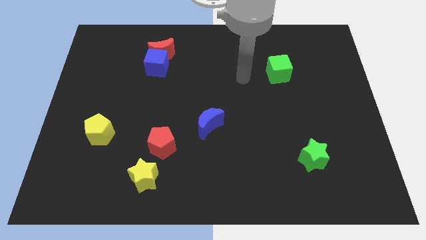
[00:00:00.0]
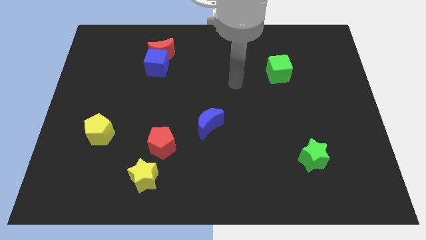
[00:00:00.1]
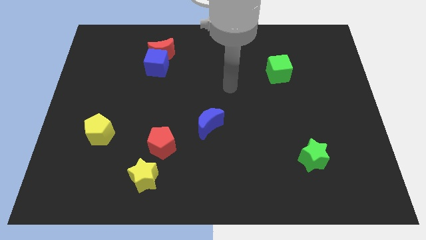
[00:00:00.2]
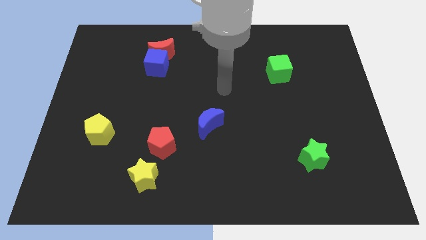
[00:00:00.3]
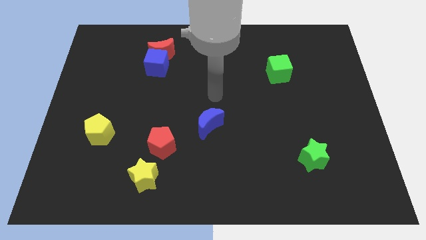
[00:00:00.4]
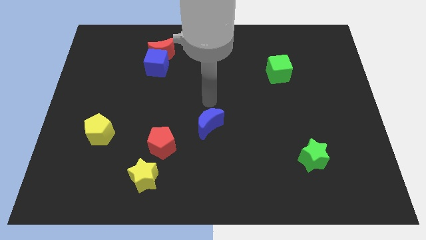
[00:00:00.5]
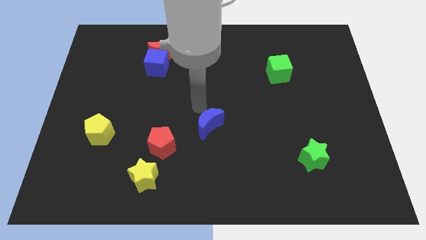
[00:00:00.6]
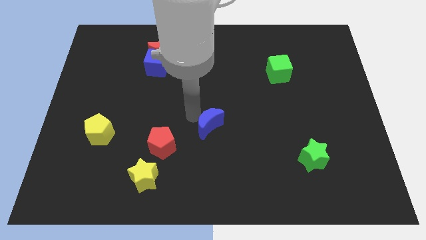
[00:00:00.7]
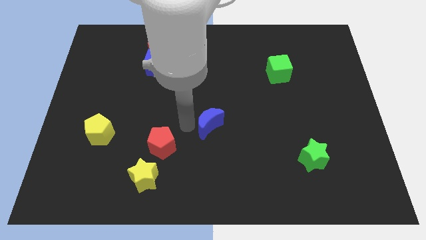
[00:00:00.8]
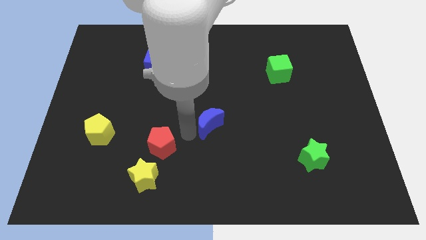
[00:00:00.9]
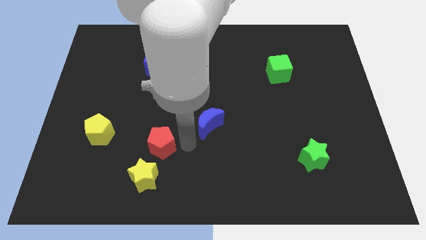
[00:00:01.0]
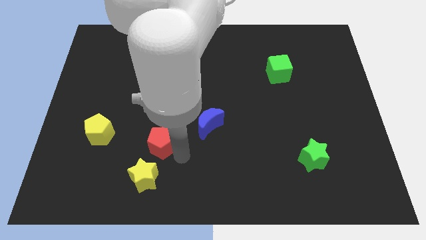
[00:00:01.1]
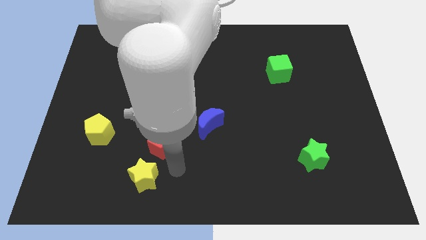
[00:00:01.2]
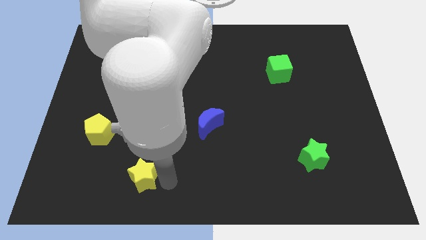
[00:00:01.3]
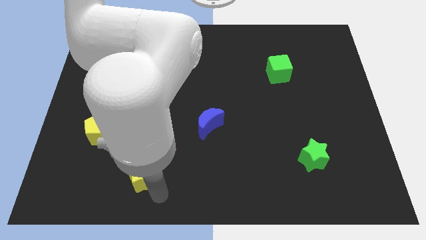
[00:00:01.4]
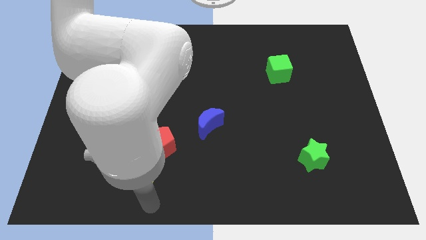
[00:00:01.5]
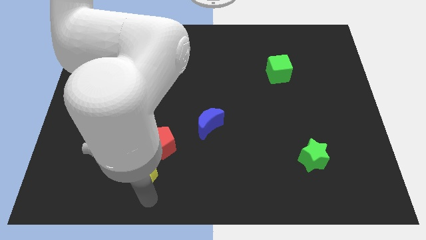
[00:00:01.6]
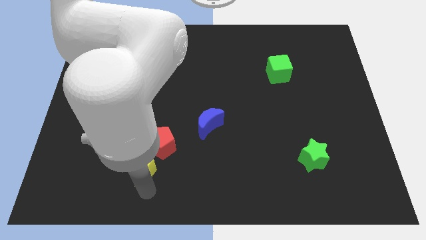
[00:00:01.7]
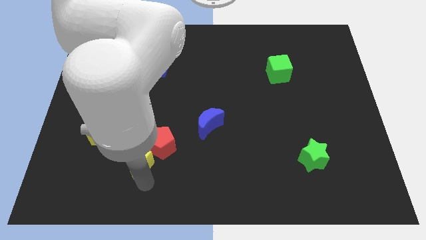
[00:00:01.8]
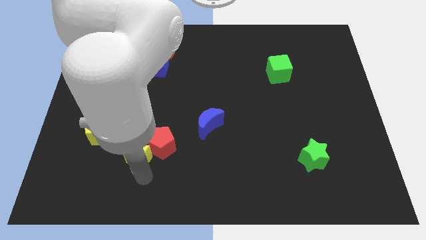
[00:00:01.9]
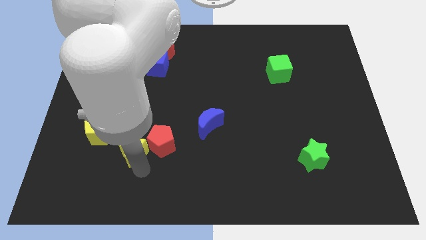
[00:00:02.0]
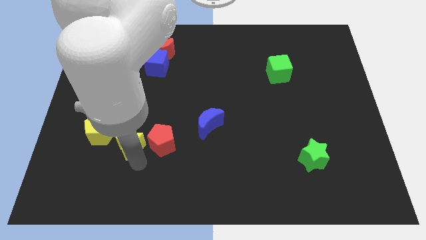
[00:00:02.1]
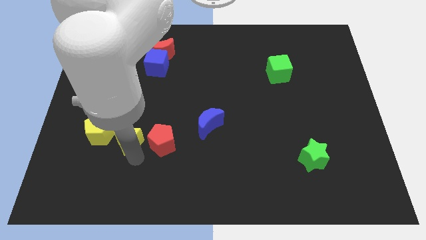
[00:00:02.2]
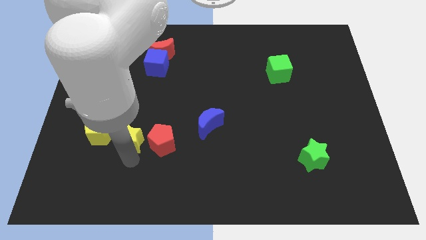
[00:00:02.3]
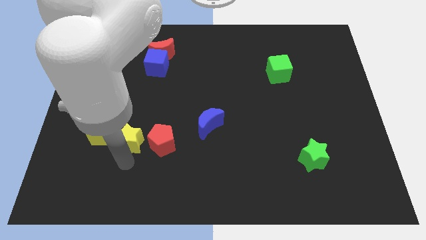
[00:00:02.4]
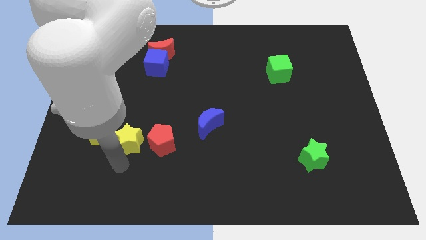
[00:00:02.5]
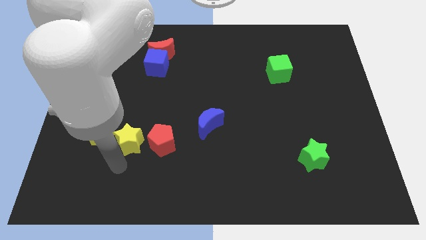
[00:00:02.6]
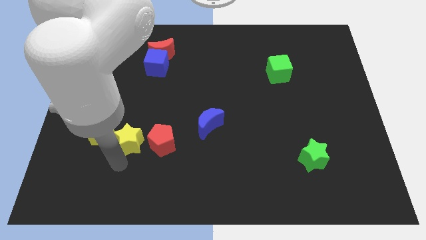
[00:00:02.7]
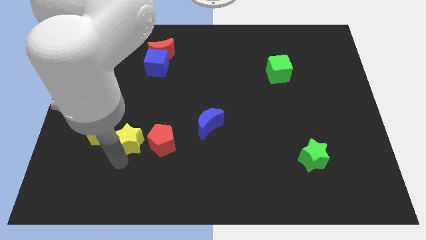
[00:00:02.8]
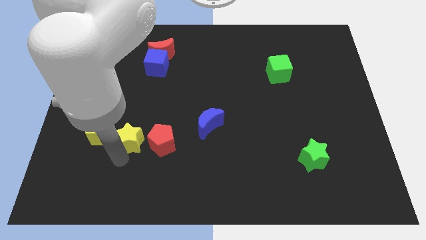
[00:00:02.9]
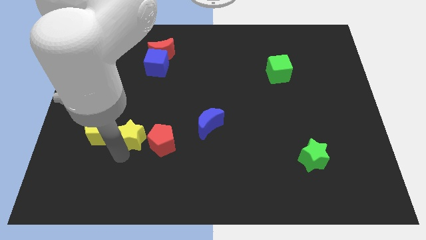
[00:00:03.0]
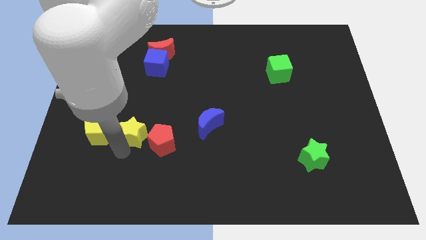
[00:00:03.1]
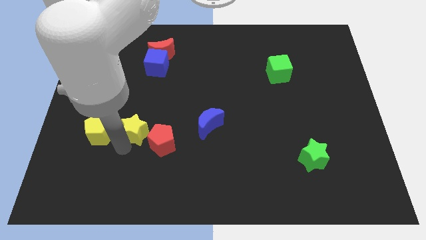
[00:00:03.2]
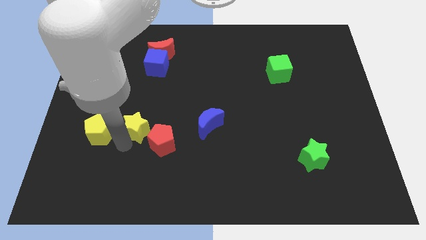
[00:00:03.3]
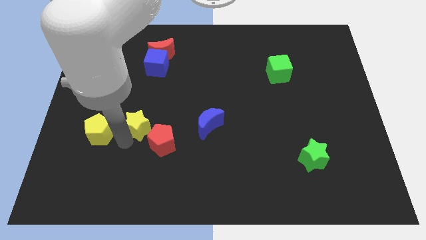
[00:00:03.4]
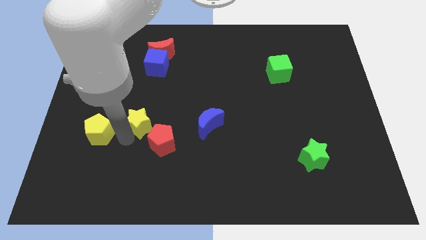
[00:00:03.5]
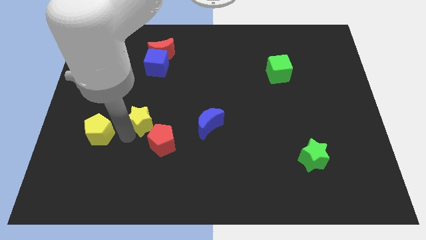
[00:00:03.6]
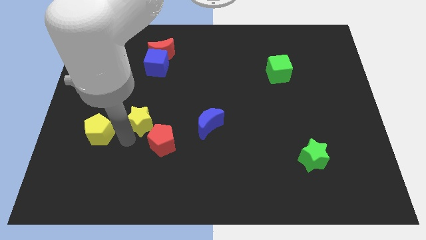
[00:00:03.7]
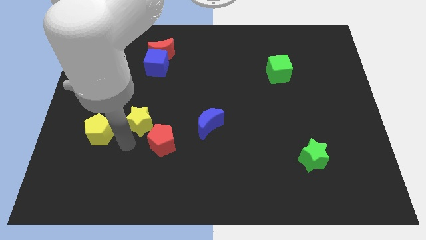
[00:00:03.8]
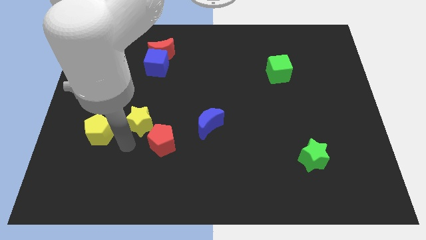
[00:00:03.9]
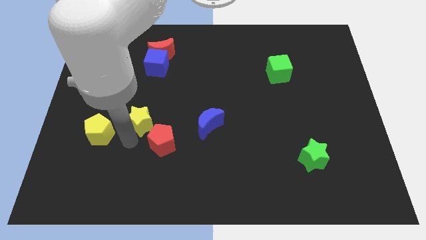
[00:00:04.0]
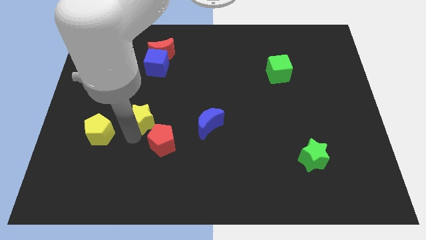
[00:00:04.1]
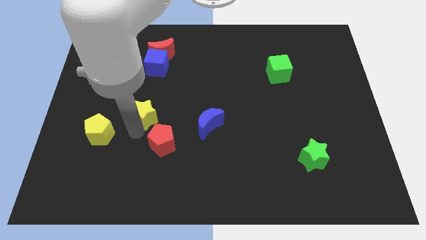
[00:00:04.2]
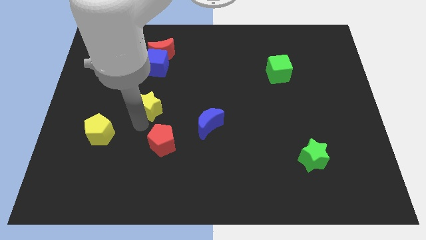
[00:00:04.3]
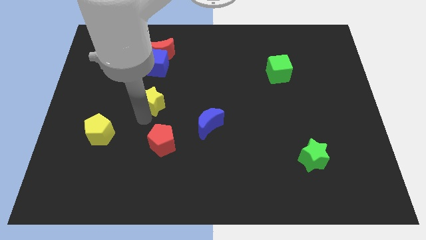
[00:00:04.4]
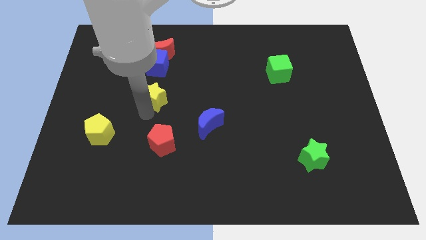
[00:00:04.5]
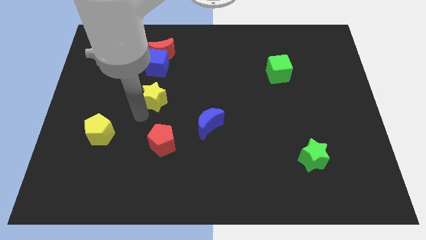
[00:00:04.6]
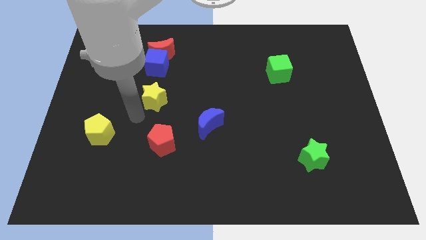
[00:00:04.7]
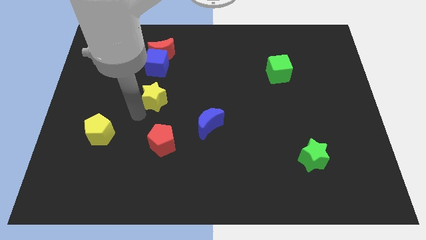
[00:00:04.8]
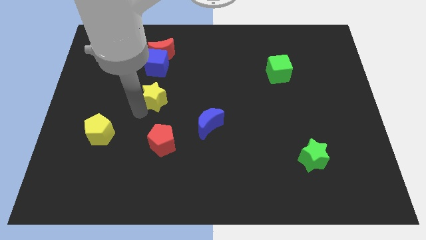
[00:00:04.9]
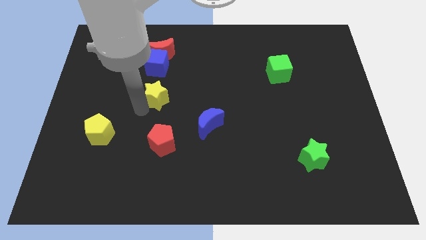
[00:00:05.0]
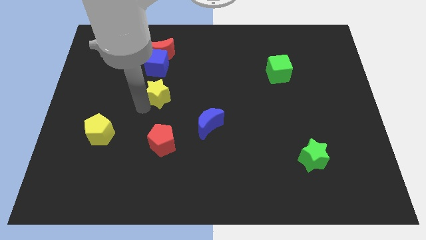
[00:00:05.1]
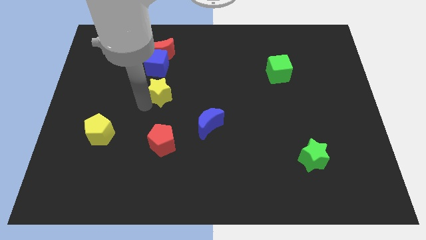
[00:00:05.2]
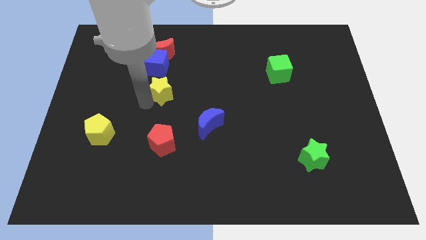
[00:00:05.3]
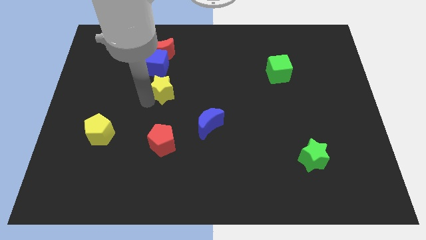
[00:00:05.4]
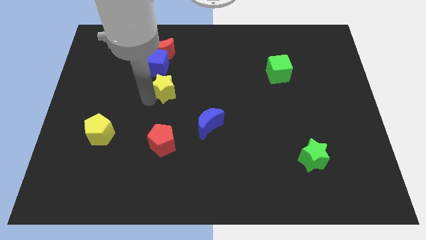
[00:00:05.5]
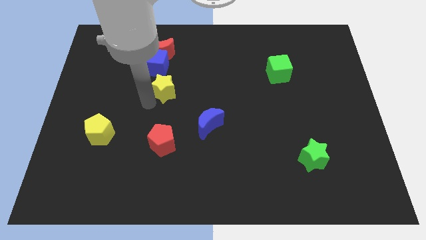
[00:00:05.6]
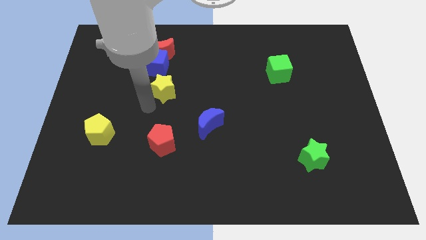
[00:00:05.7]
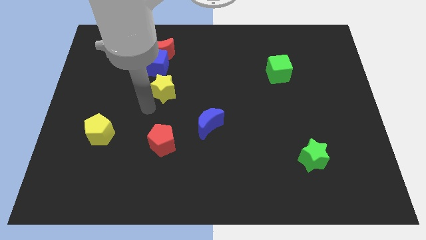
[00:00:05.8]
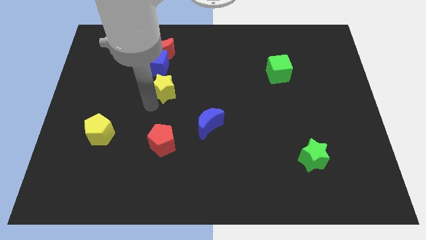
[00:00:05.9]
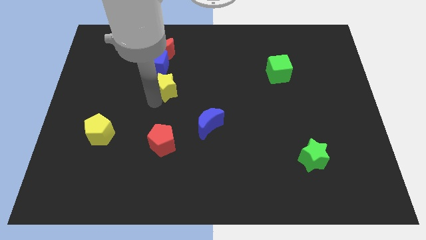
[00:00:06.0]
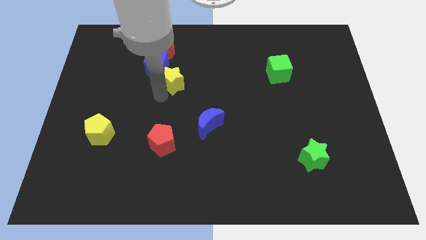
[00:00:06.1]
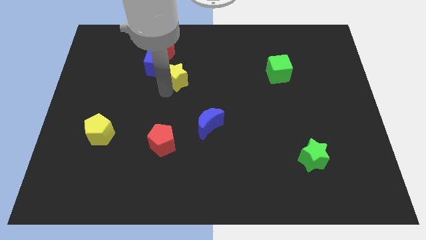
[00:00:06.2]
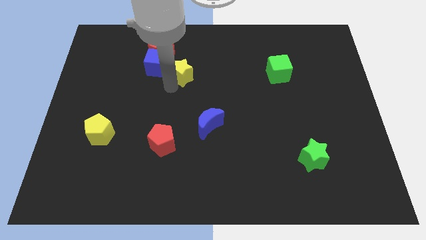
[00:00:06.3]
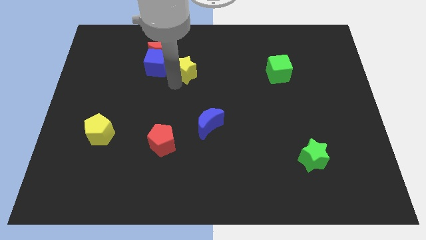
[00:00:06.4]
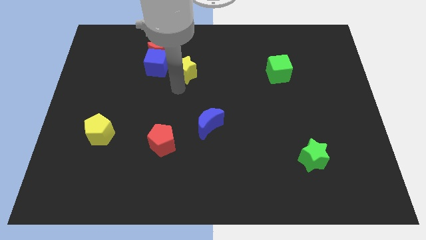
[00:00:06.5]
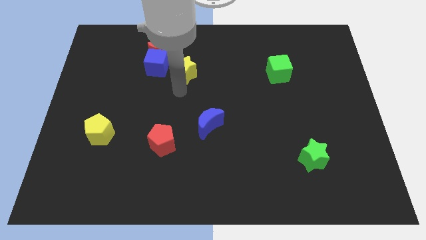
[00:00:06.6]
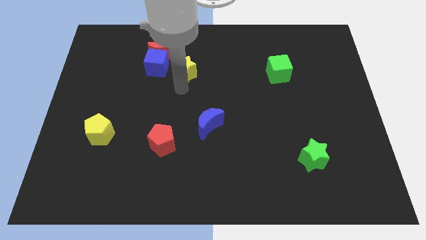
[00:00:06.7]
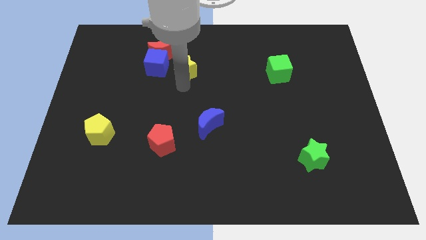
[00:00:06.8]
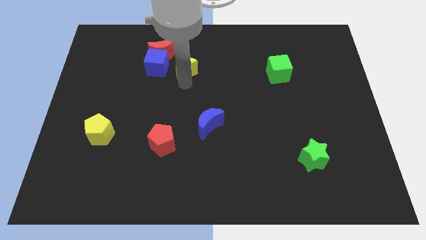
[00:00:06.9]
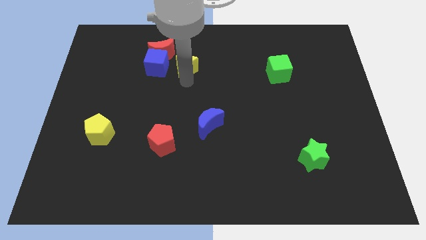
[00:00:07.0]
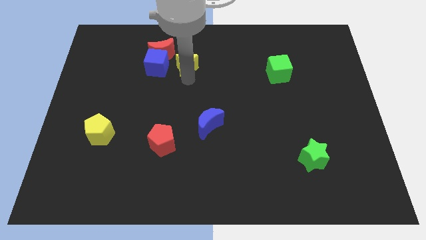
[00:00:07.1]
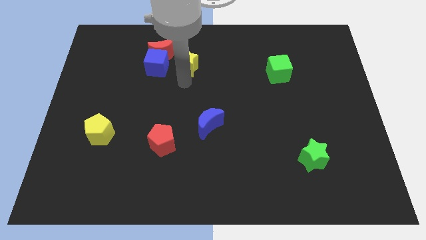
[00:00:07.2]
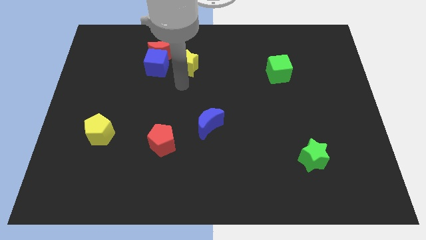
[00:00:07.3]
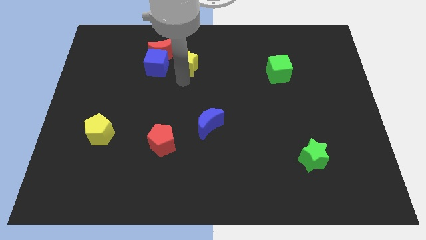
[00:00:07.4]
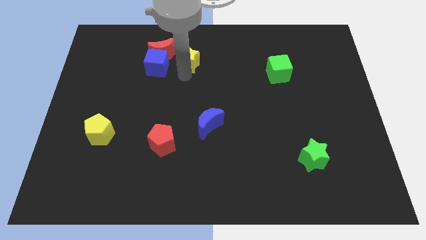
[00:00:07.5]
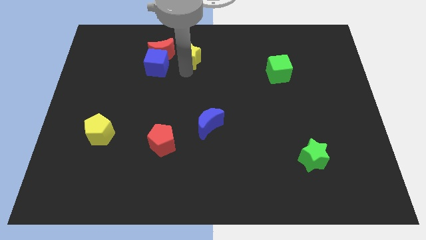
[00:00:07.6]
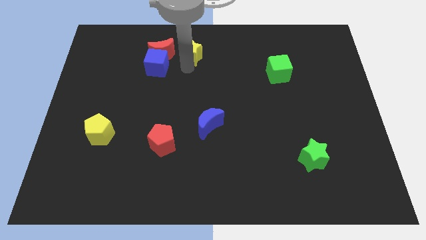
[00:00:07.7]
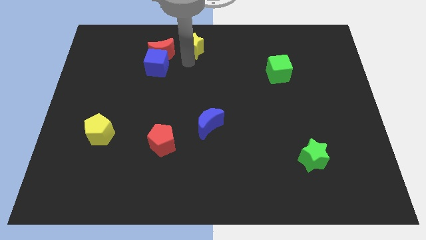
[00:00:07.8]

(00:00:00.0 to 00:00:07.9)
put the yellow star to the top side
